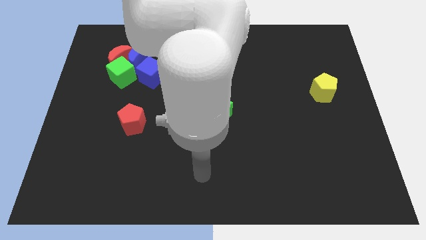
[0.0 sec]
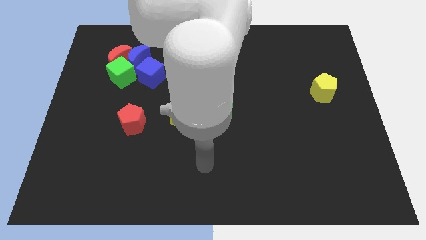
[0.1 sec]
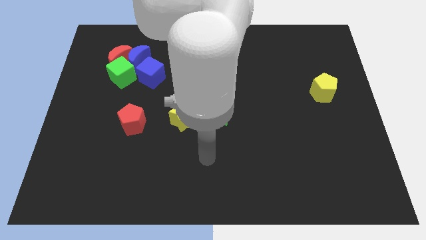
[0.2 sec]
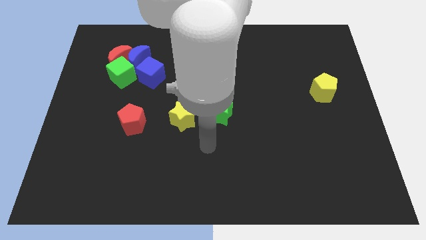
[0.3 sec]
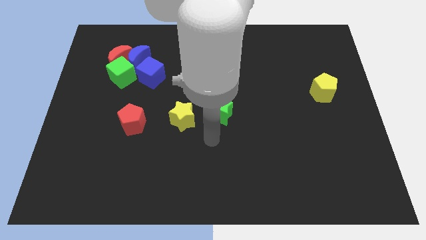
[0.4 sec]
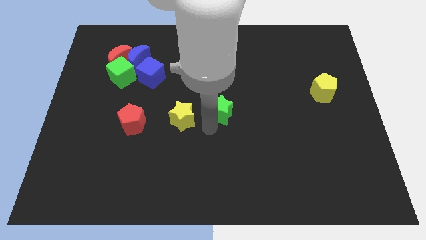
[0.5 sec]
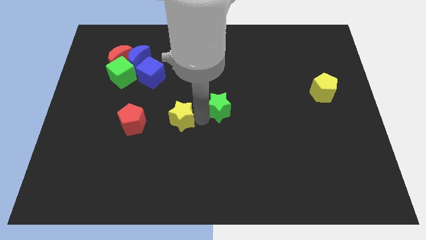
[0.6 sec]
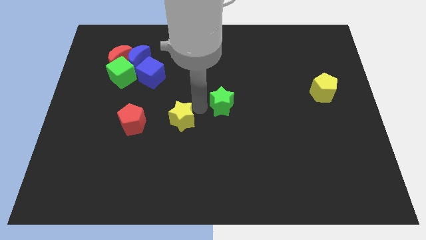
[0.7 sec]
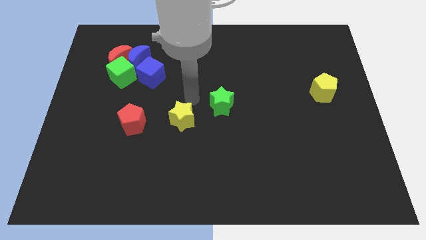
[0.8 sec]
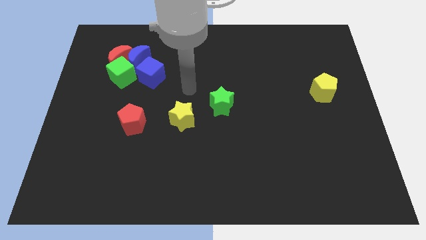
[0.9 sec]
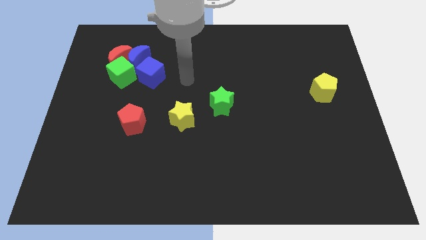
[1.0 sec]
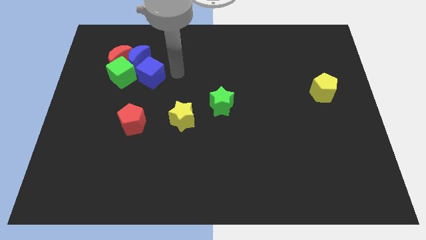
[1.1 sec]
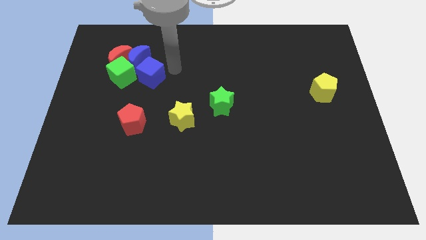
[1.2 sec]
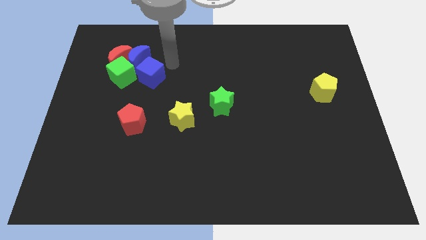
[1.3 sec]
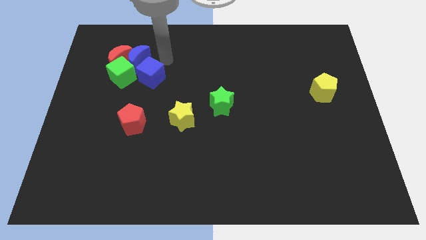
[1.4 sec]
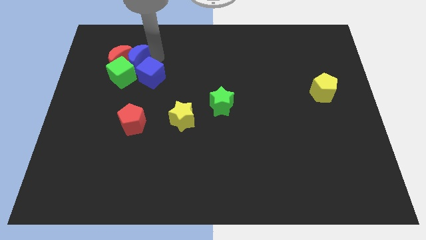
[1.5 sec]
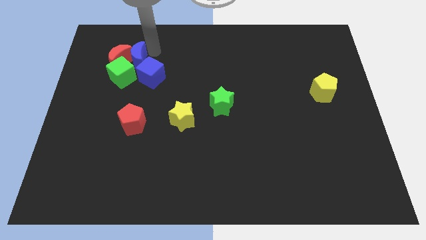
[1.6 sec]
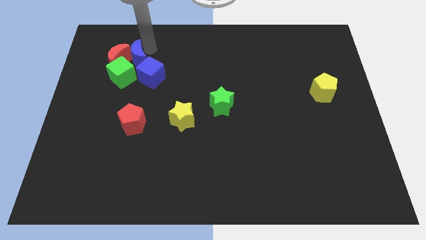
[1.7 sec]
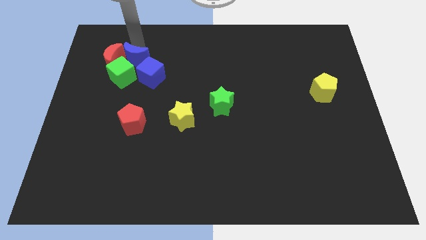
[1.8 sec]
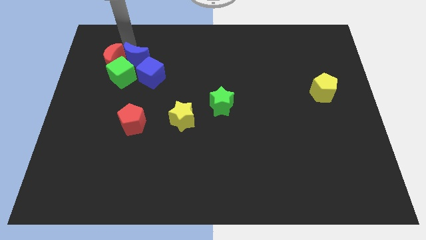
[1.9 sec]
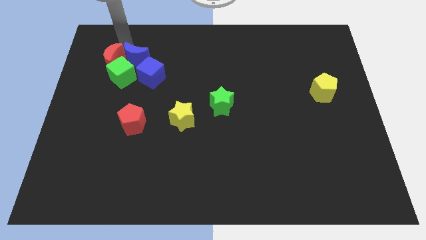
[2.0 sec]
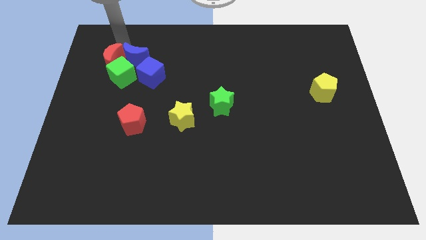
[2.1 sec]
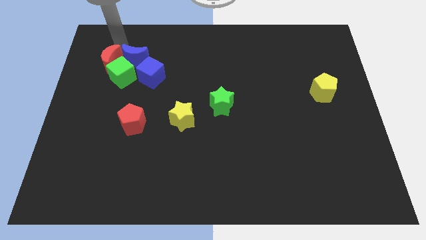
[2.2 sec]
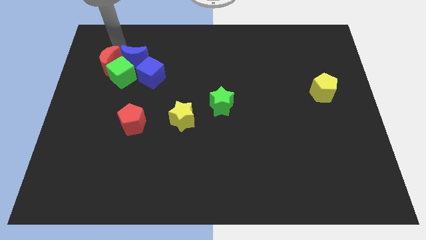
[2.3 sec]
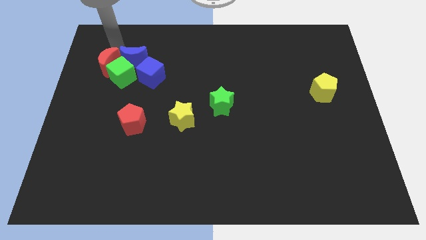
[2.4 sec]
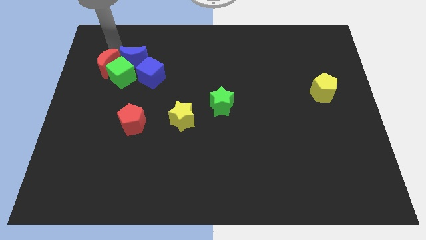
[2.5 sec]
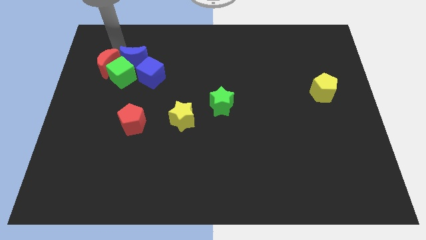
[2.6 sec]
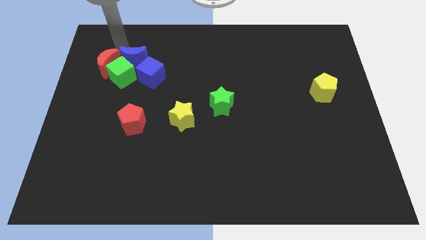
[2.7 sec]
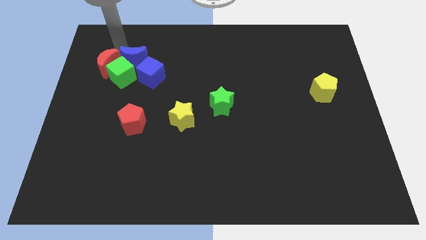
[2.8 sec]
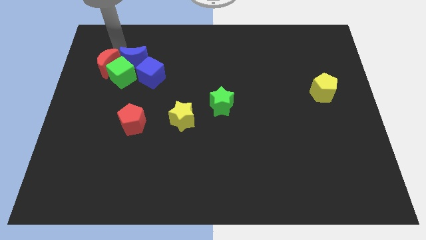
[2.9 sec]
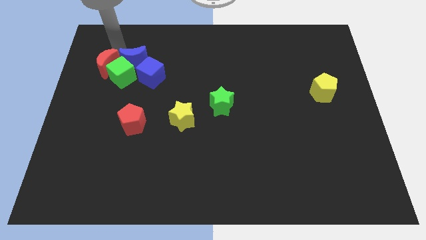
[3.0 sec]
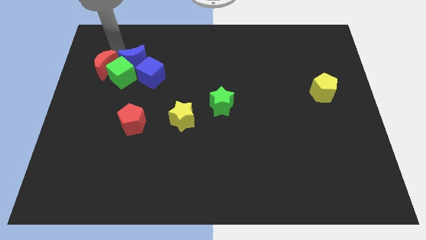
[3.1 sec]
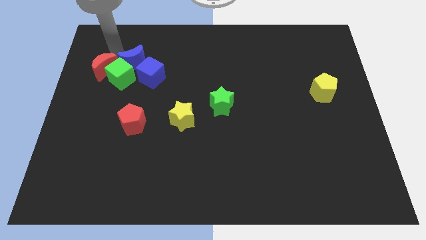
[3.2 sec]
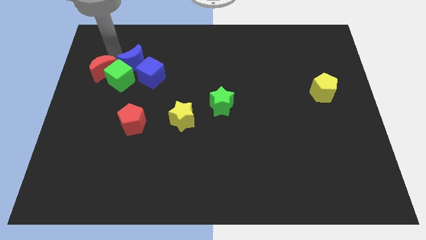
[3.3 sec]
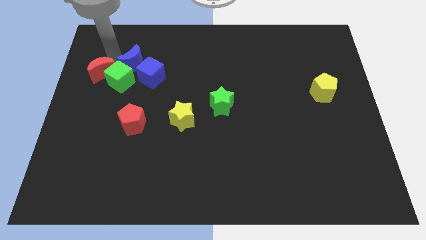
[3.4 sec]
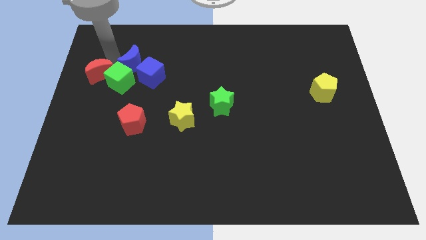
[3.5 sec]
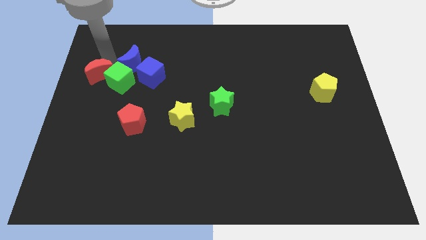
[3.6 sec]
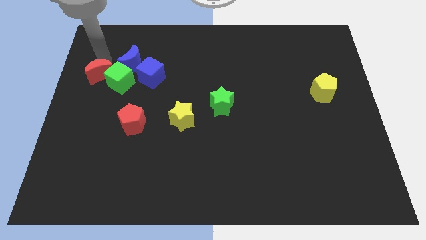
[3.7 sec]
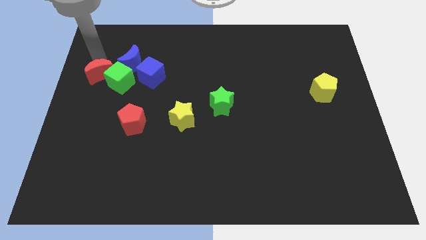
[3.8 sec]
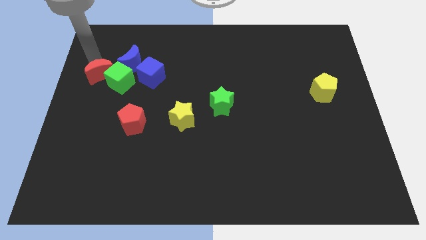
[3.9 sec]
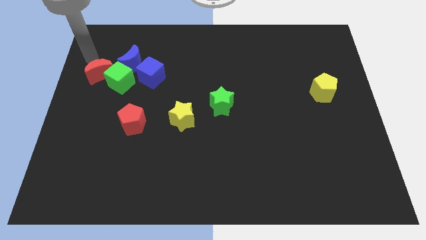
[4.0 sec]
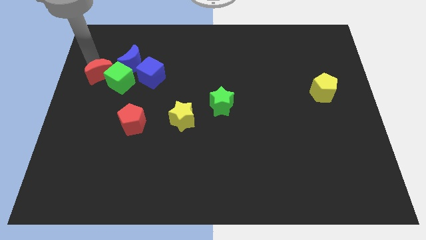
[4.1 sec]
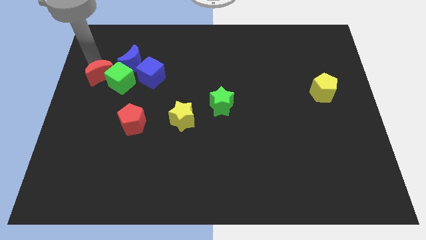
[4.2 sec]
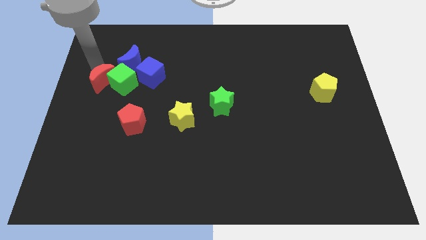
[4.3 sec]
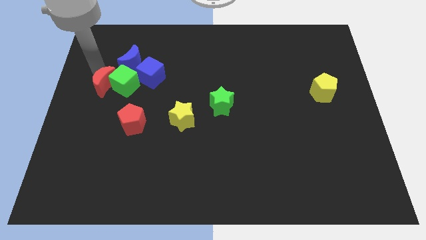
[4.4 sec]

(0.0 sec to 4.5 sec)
slightly move the red moon downwards

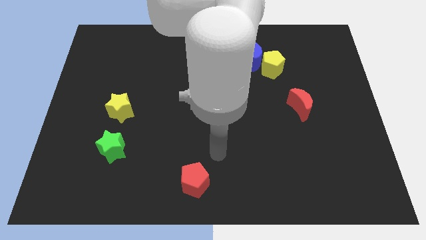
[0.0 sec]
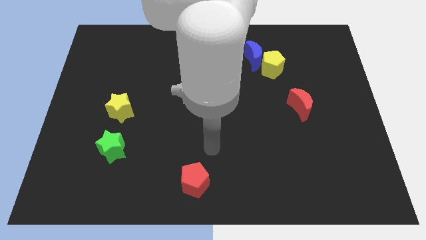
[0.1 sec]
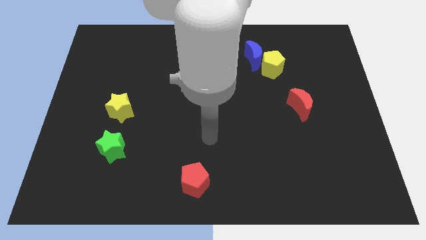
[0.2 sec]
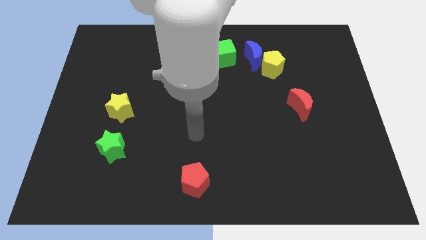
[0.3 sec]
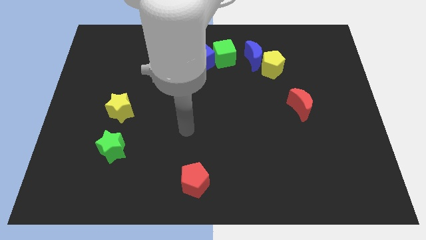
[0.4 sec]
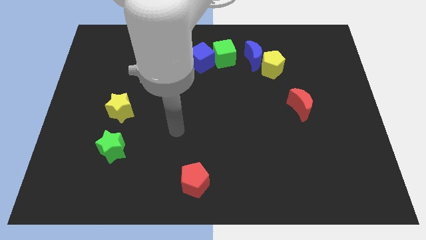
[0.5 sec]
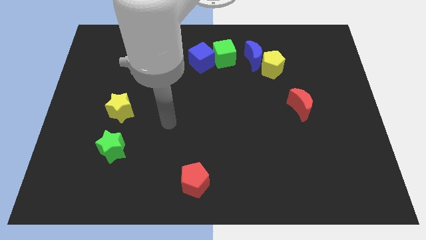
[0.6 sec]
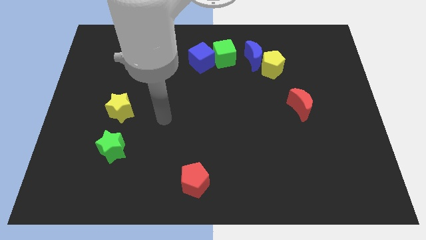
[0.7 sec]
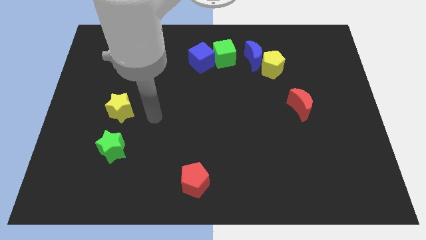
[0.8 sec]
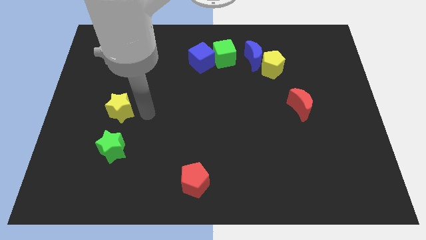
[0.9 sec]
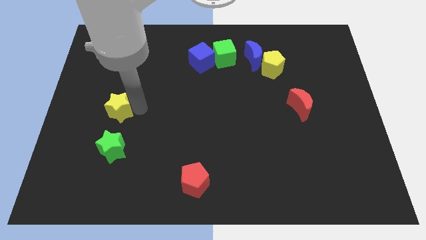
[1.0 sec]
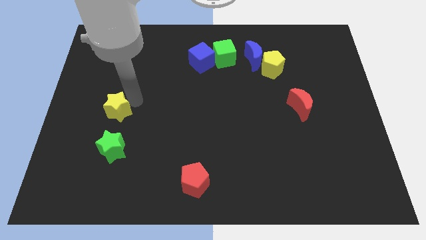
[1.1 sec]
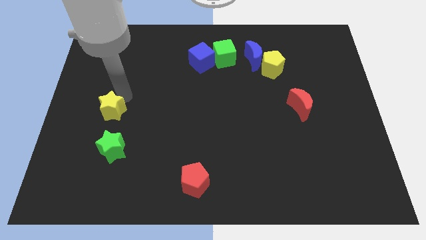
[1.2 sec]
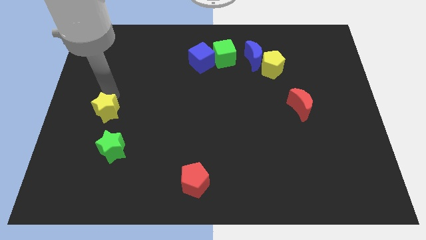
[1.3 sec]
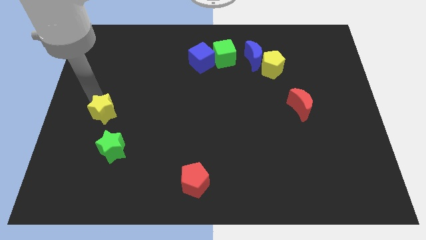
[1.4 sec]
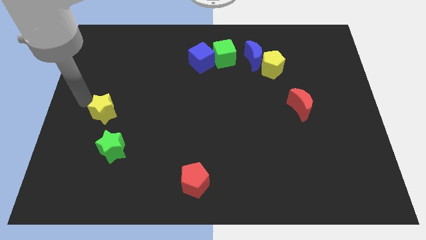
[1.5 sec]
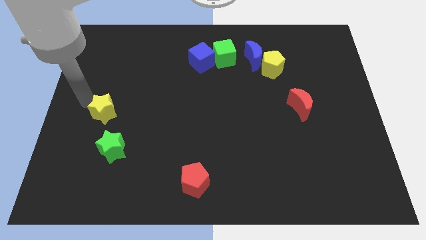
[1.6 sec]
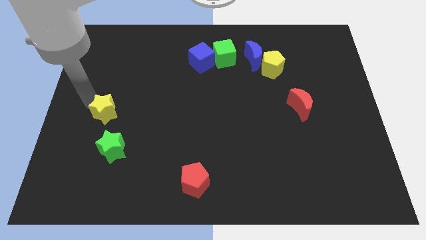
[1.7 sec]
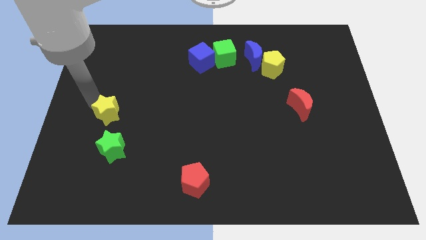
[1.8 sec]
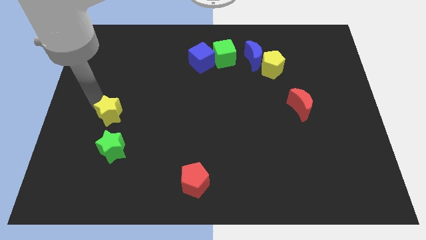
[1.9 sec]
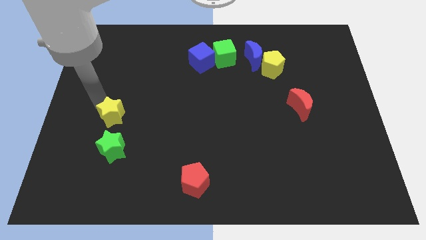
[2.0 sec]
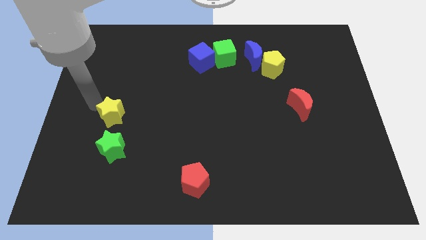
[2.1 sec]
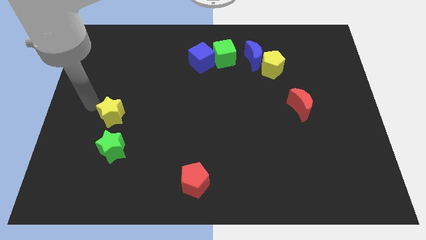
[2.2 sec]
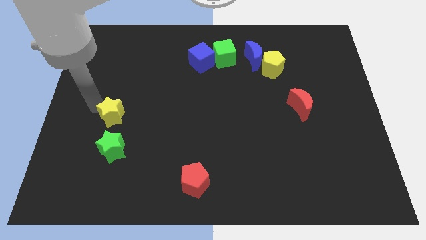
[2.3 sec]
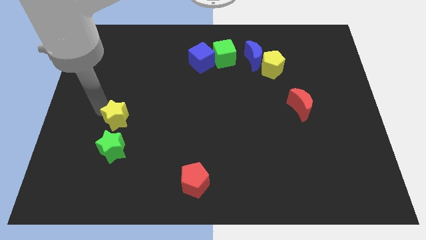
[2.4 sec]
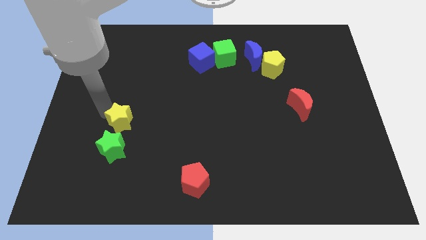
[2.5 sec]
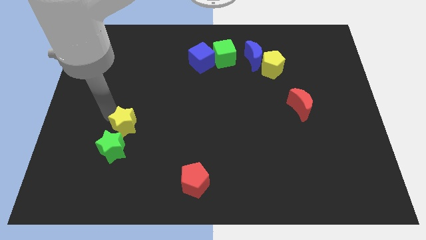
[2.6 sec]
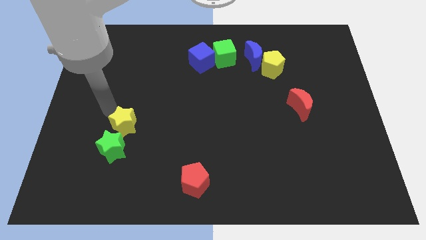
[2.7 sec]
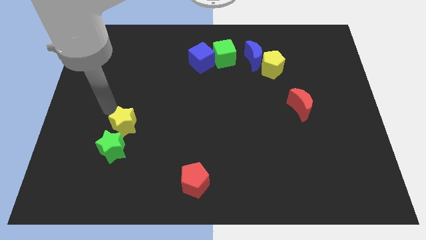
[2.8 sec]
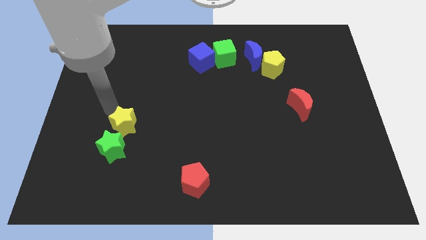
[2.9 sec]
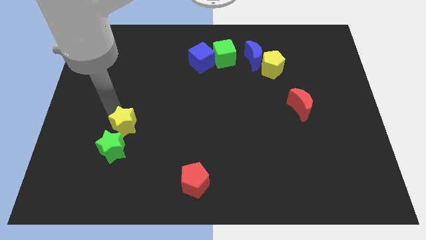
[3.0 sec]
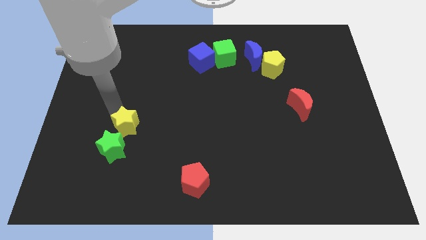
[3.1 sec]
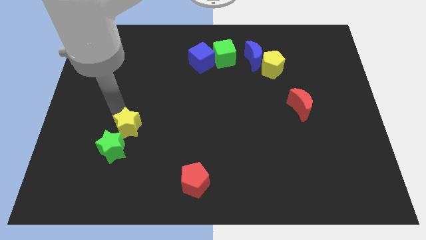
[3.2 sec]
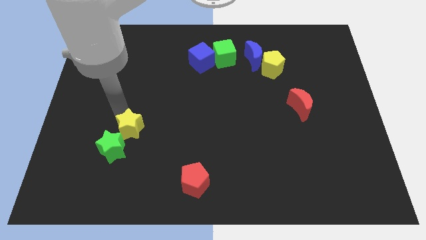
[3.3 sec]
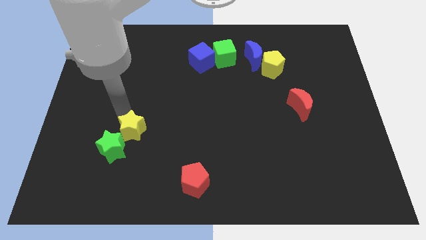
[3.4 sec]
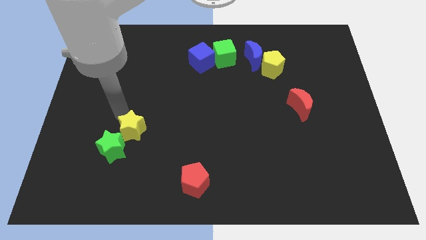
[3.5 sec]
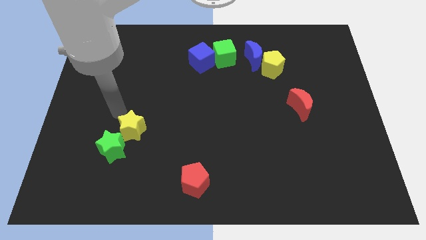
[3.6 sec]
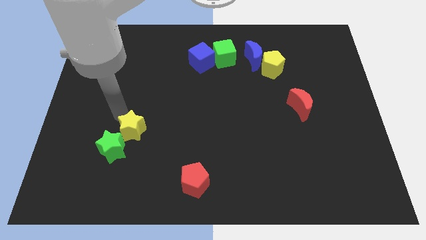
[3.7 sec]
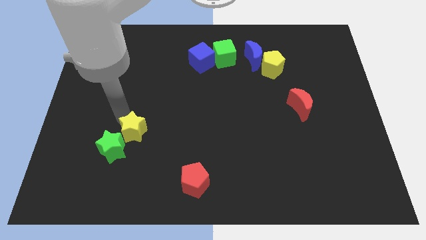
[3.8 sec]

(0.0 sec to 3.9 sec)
slide the yellow star down and right diagonally a bit
